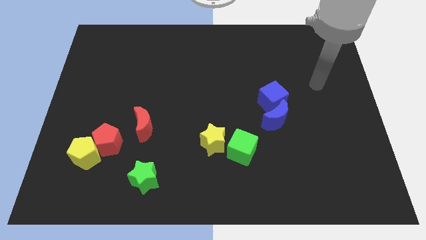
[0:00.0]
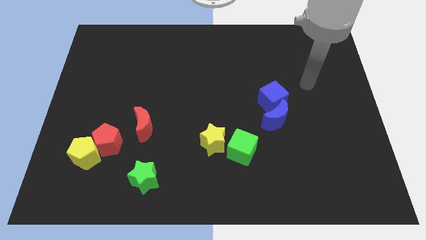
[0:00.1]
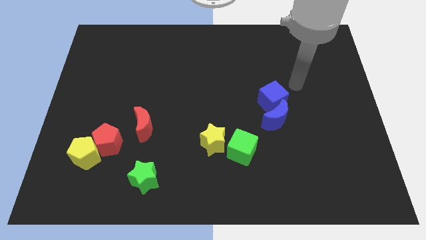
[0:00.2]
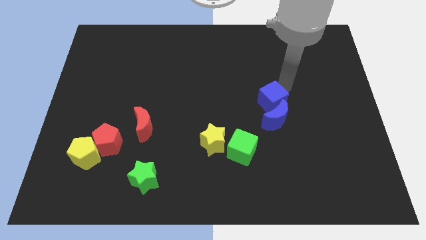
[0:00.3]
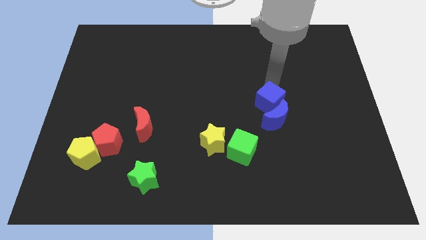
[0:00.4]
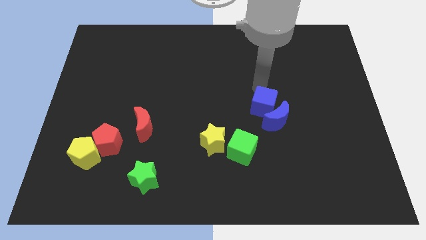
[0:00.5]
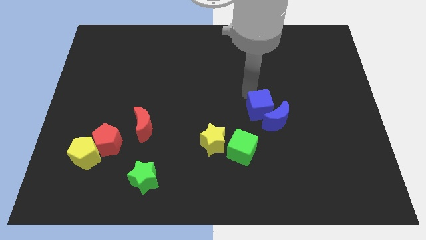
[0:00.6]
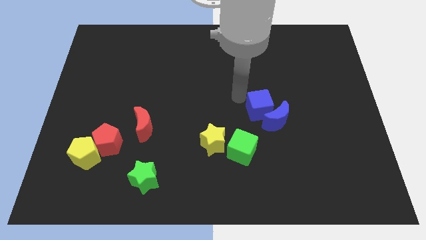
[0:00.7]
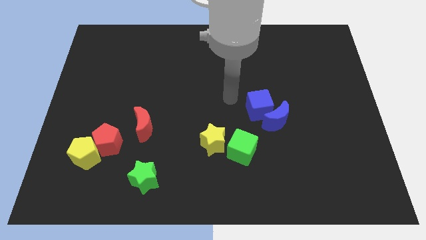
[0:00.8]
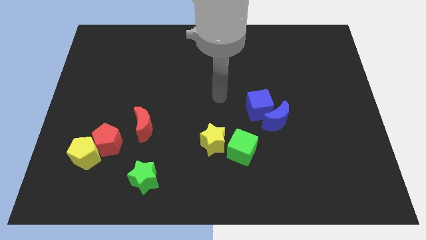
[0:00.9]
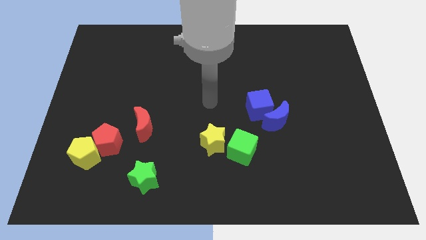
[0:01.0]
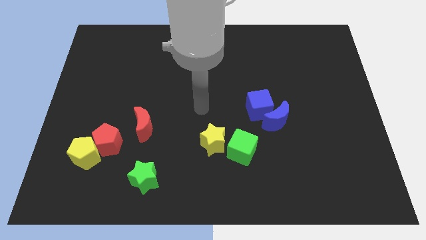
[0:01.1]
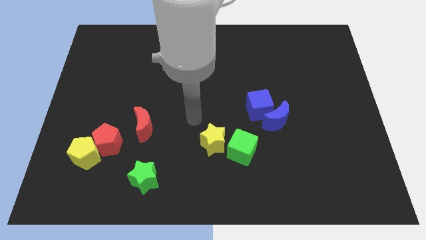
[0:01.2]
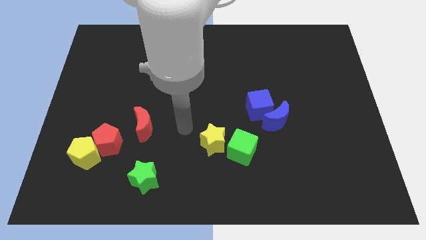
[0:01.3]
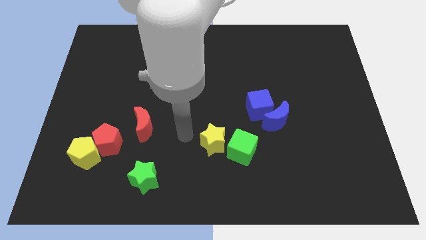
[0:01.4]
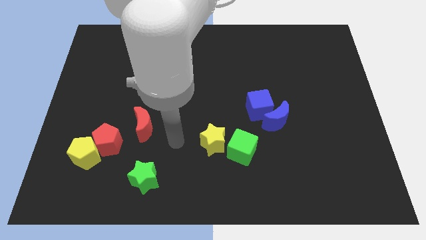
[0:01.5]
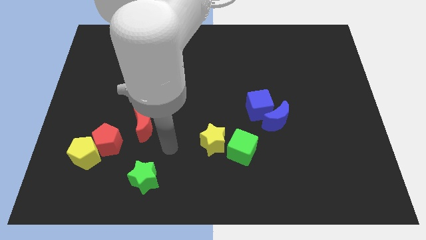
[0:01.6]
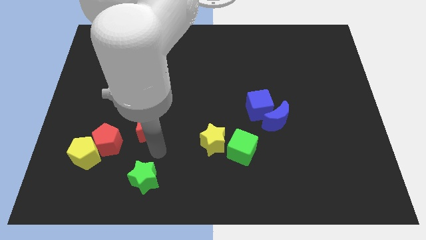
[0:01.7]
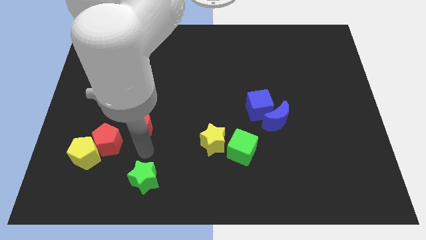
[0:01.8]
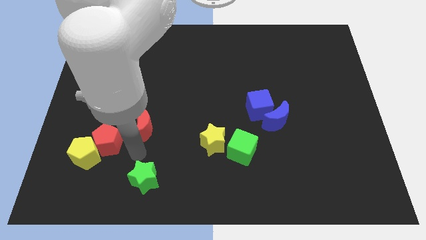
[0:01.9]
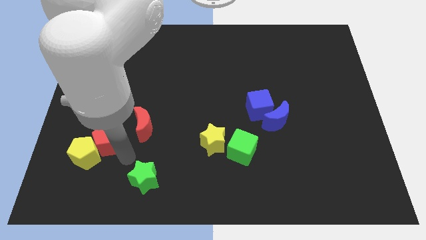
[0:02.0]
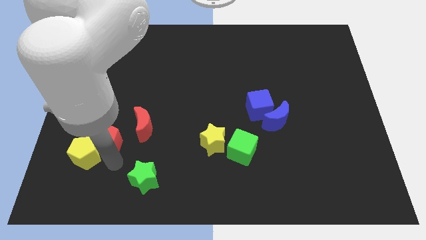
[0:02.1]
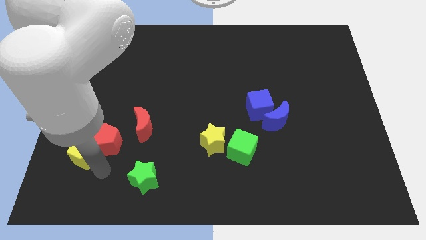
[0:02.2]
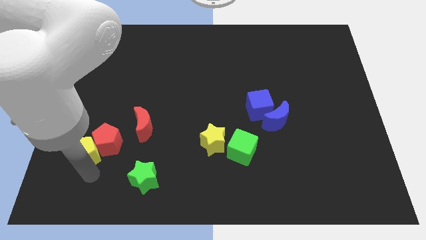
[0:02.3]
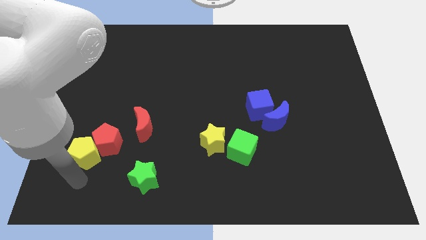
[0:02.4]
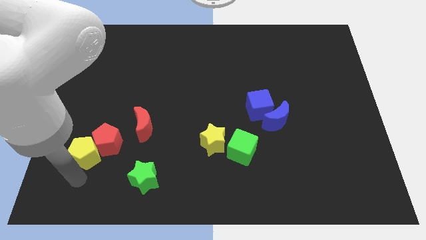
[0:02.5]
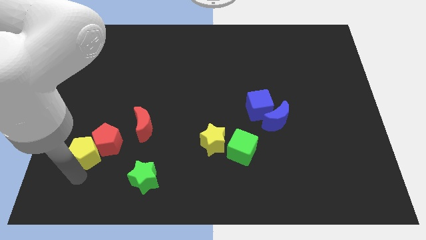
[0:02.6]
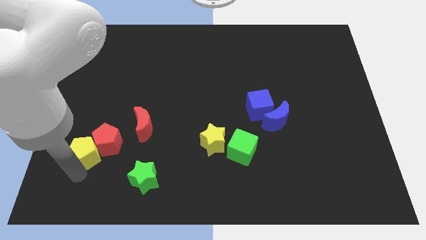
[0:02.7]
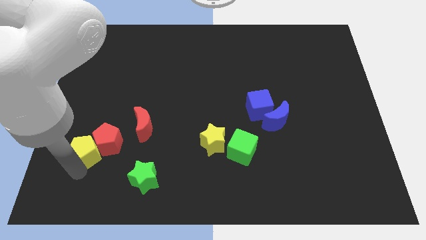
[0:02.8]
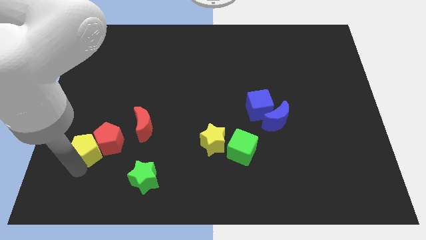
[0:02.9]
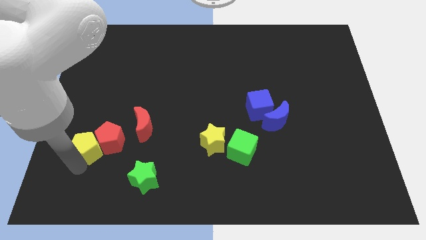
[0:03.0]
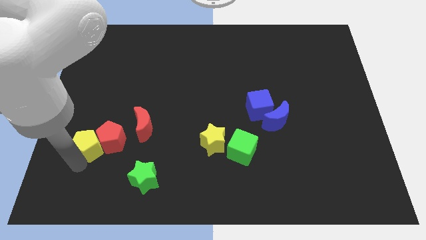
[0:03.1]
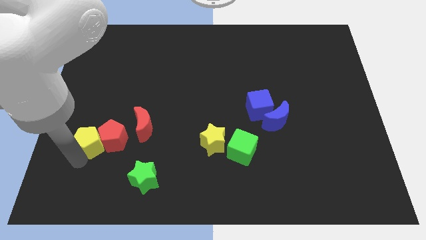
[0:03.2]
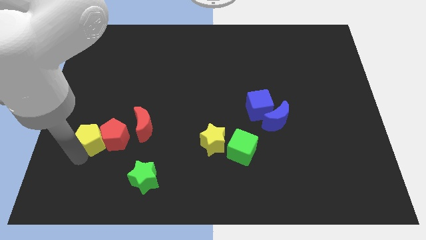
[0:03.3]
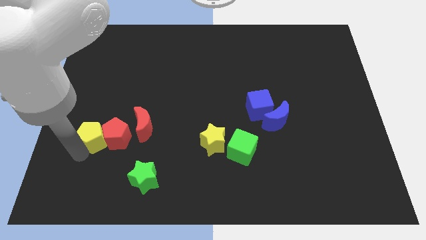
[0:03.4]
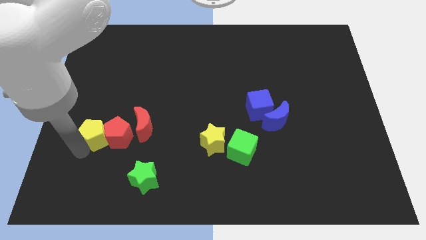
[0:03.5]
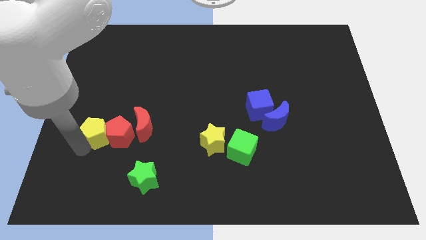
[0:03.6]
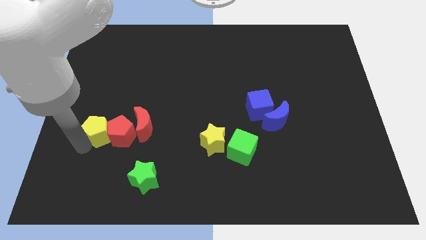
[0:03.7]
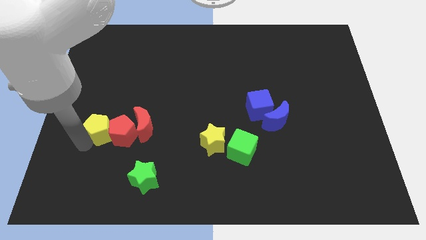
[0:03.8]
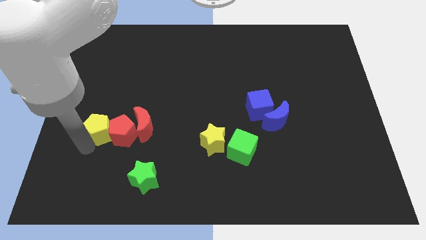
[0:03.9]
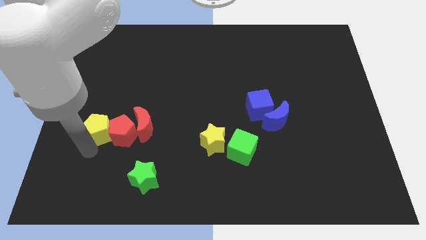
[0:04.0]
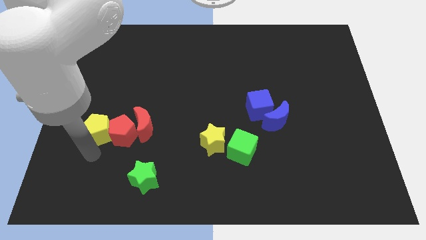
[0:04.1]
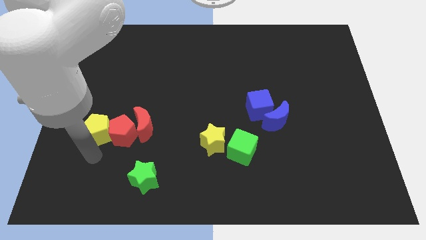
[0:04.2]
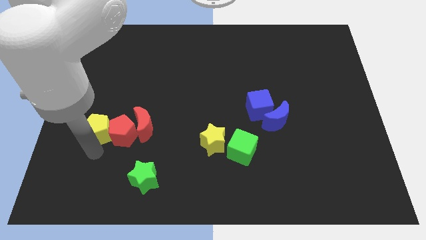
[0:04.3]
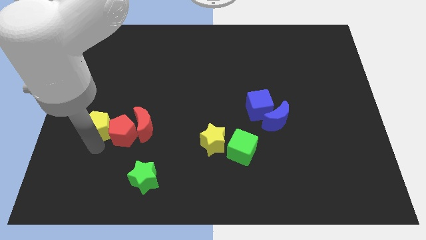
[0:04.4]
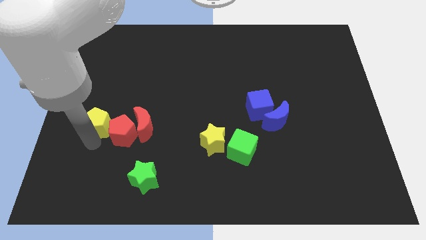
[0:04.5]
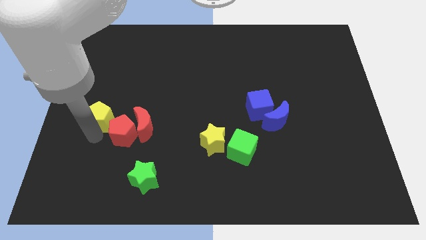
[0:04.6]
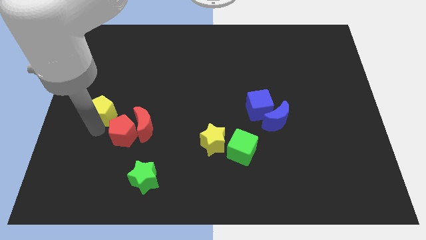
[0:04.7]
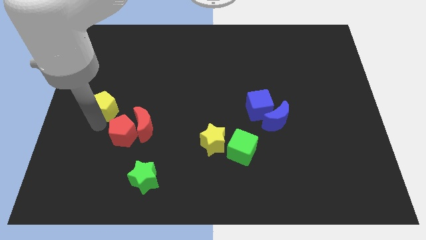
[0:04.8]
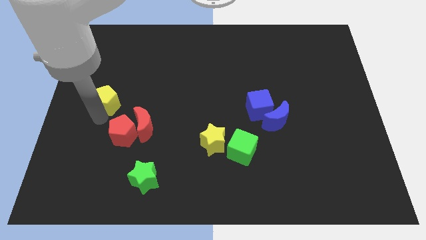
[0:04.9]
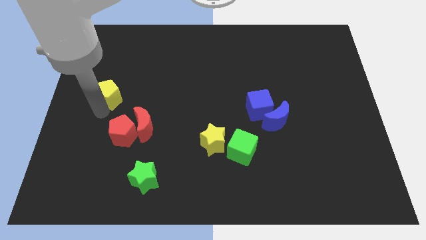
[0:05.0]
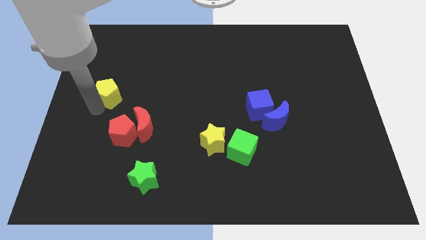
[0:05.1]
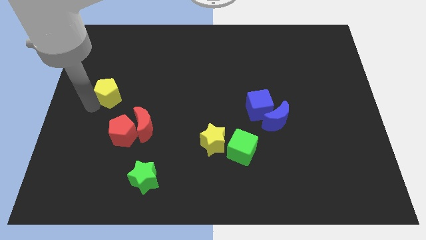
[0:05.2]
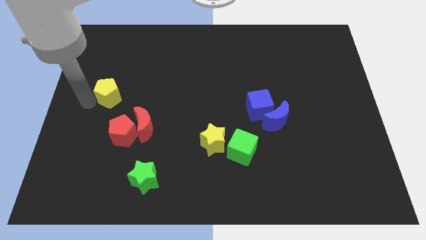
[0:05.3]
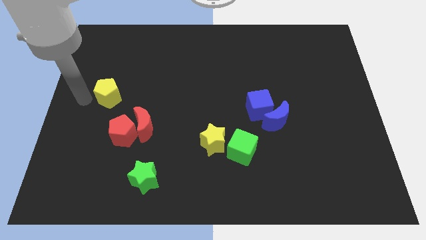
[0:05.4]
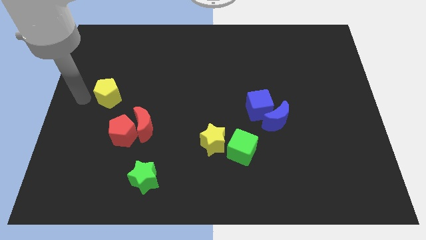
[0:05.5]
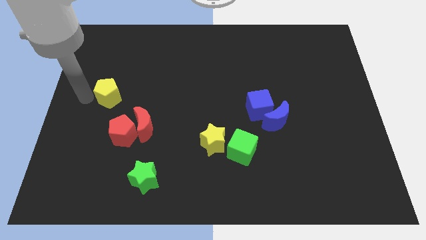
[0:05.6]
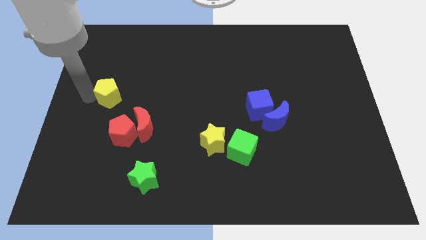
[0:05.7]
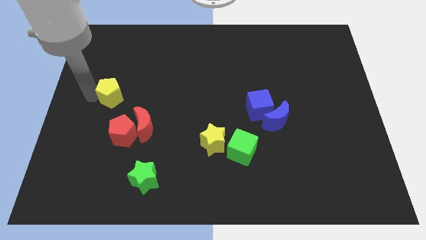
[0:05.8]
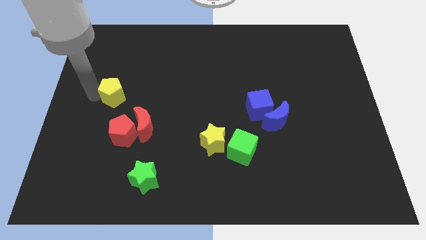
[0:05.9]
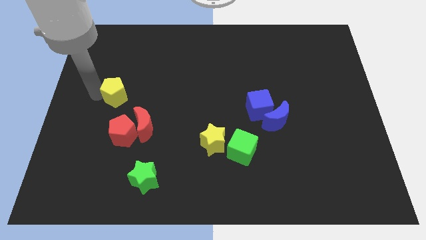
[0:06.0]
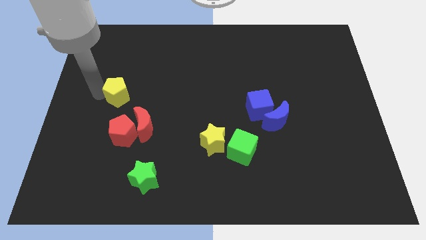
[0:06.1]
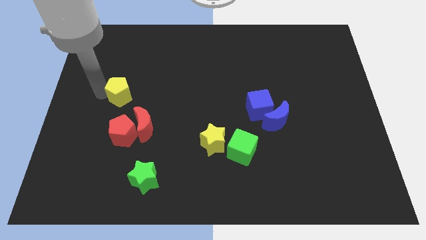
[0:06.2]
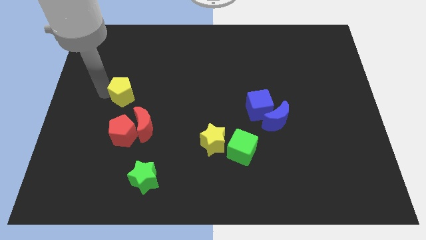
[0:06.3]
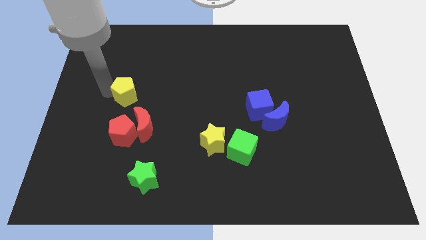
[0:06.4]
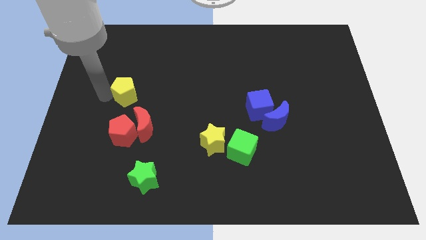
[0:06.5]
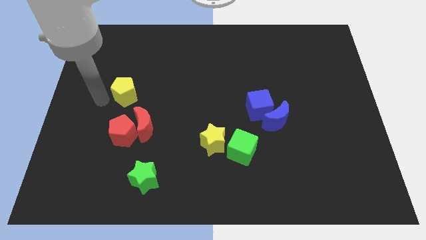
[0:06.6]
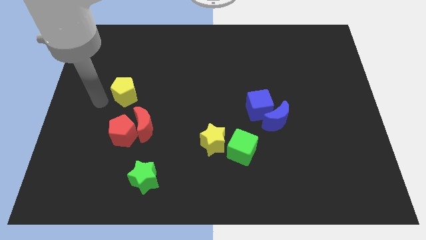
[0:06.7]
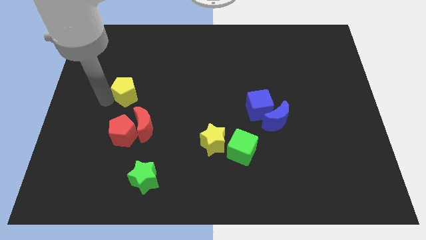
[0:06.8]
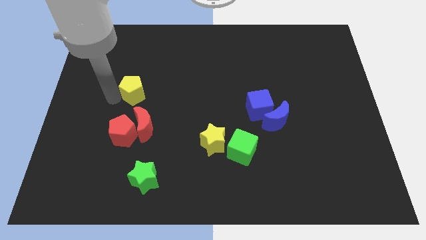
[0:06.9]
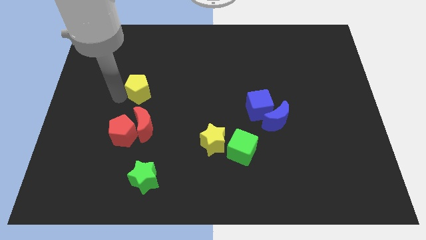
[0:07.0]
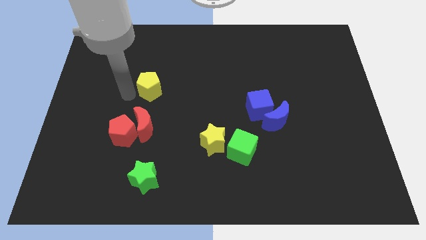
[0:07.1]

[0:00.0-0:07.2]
push the yellow pentagon upwards and right

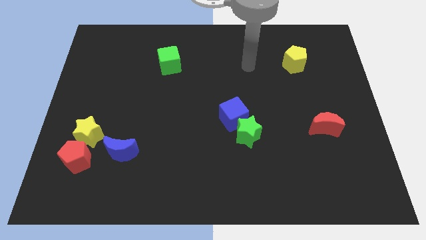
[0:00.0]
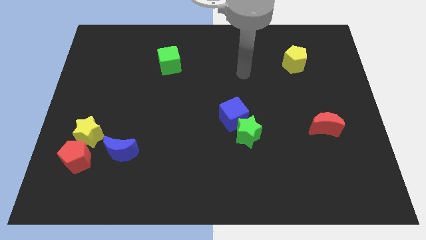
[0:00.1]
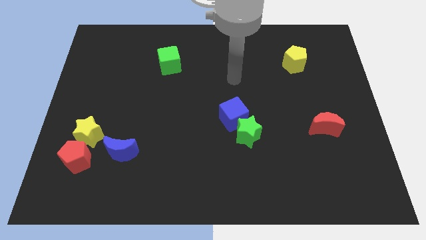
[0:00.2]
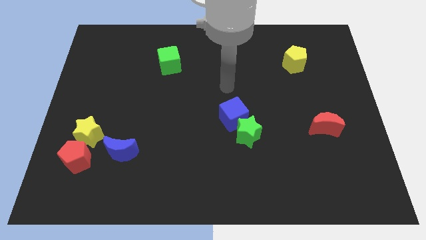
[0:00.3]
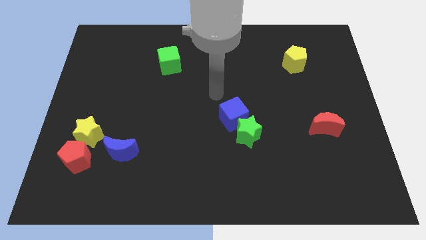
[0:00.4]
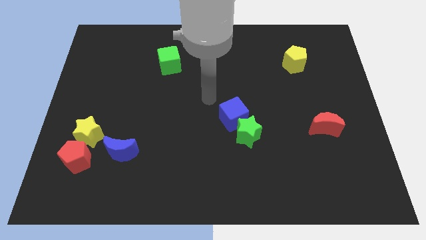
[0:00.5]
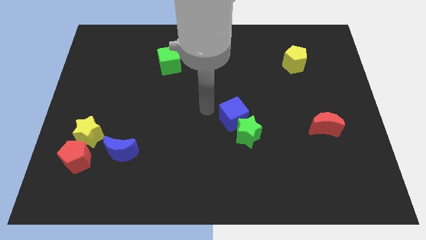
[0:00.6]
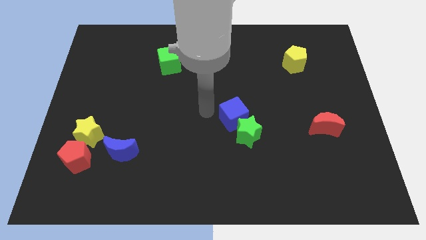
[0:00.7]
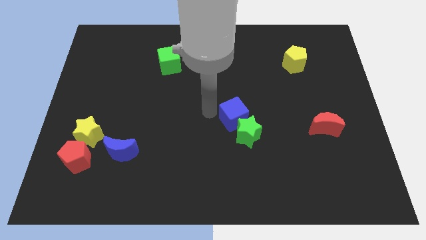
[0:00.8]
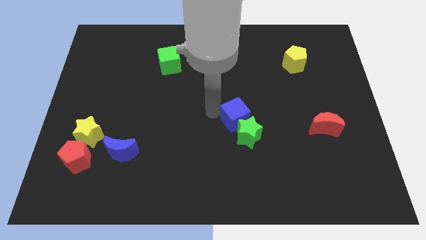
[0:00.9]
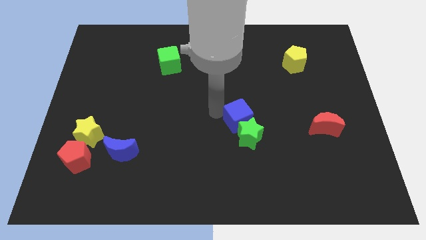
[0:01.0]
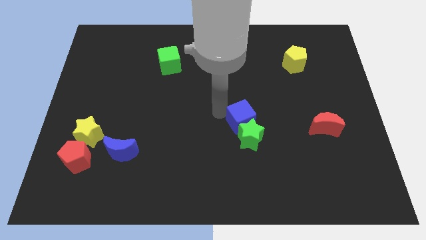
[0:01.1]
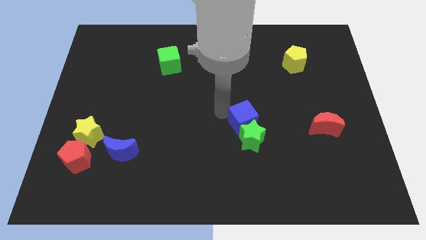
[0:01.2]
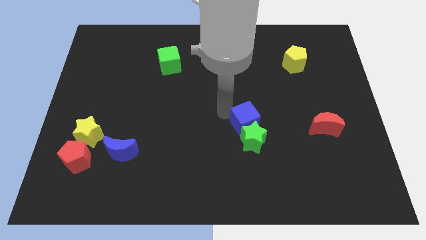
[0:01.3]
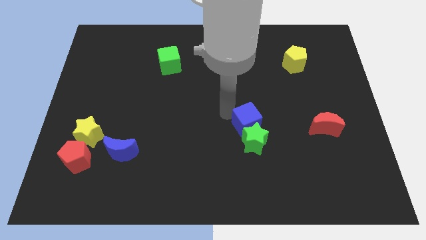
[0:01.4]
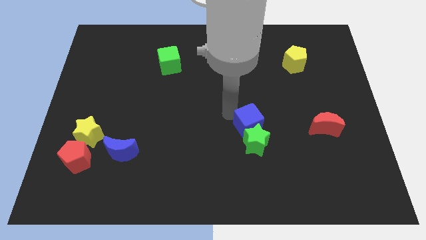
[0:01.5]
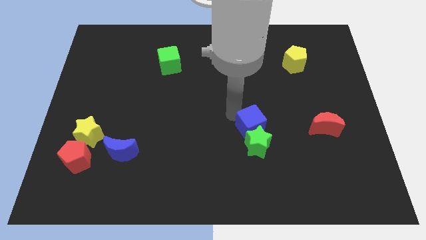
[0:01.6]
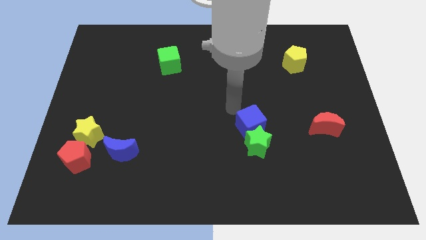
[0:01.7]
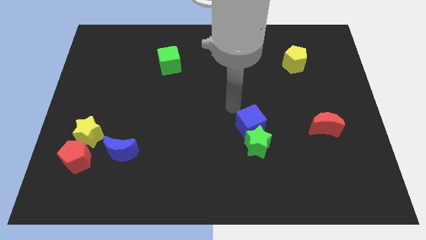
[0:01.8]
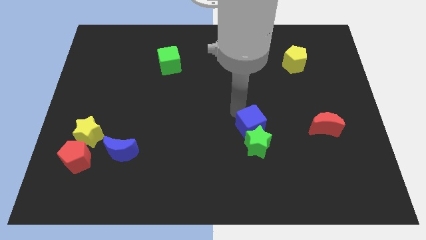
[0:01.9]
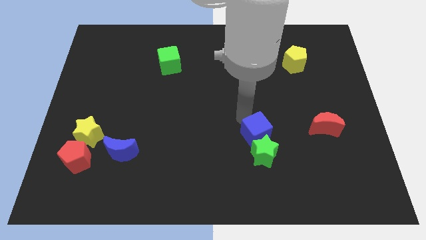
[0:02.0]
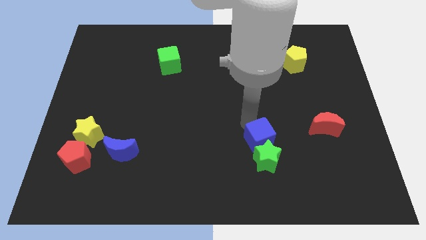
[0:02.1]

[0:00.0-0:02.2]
slightly slide the blue cube down and to the right
